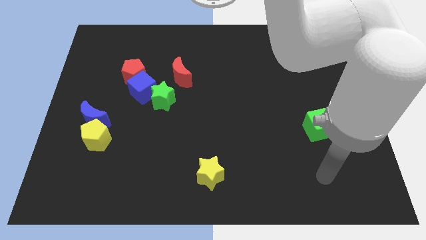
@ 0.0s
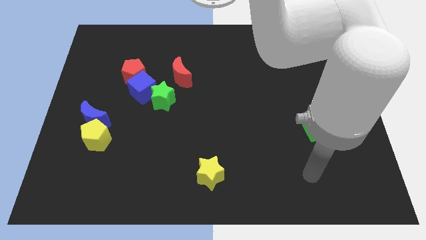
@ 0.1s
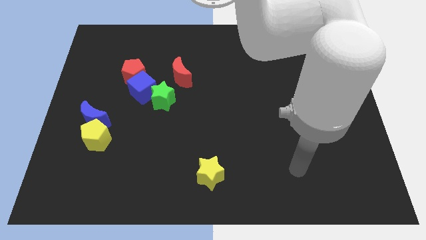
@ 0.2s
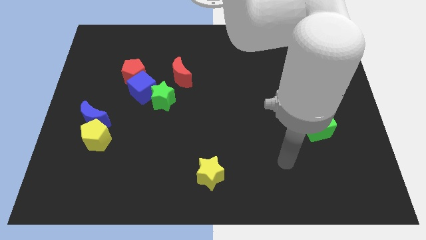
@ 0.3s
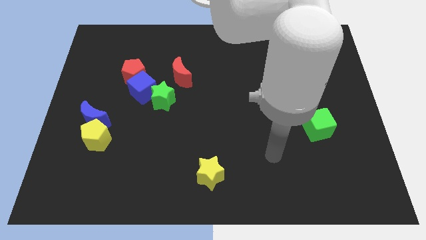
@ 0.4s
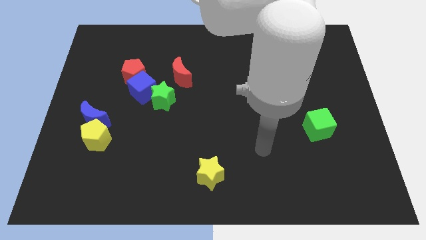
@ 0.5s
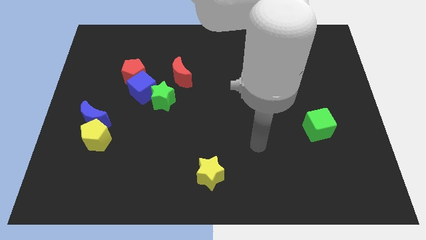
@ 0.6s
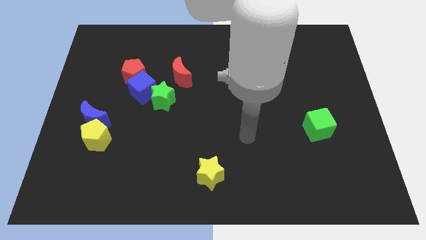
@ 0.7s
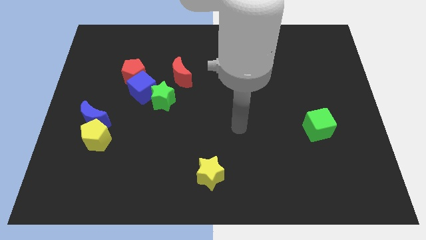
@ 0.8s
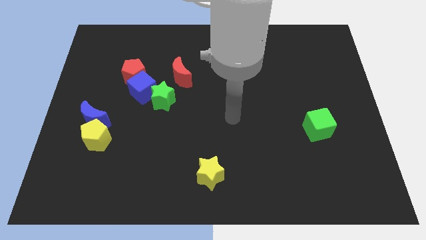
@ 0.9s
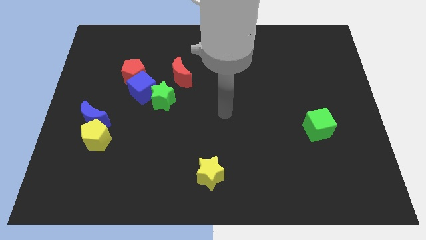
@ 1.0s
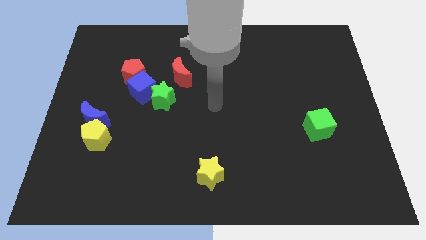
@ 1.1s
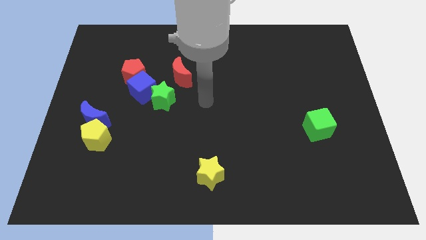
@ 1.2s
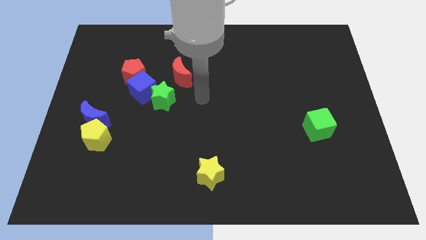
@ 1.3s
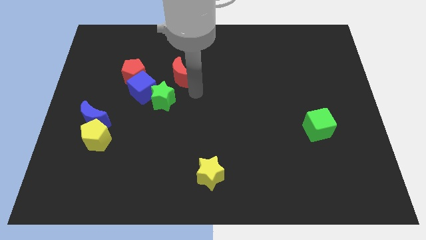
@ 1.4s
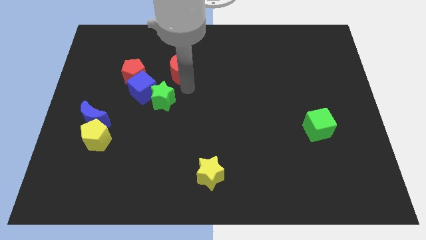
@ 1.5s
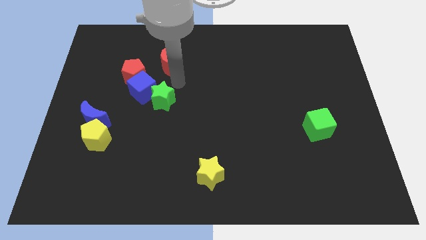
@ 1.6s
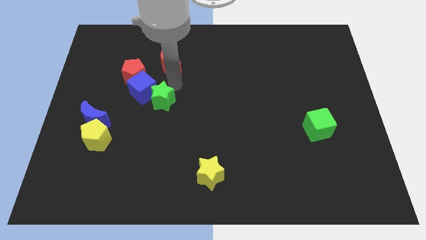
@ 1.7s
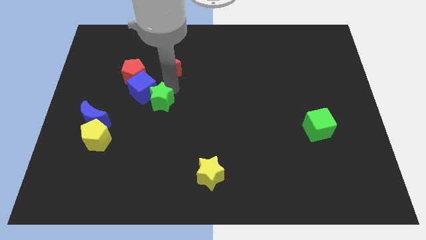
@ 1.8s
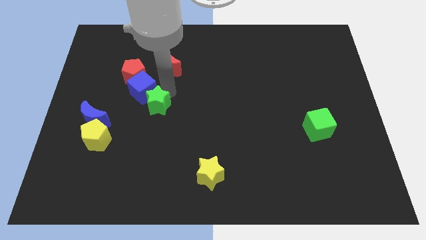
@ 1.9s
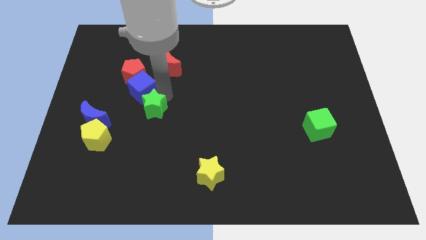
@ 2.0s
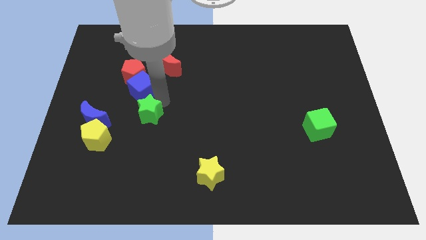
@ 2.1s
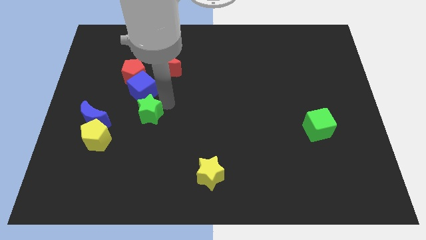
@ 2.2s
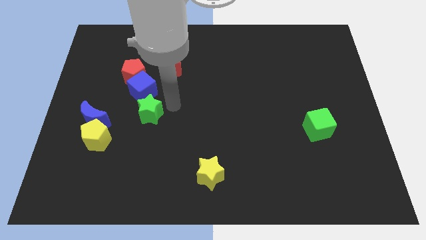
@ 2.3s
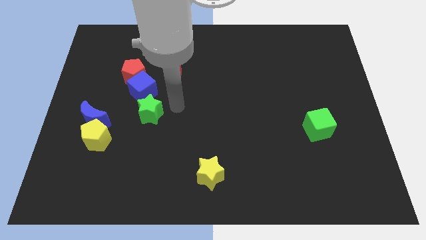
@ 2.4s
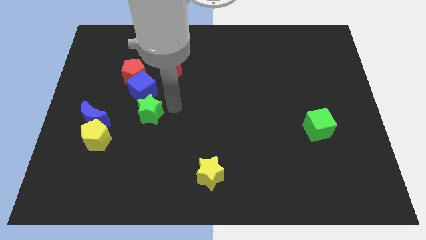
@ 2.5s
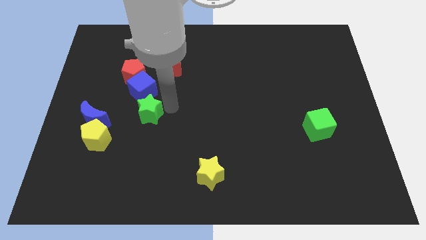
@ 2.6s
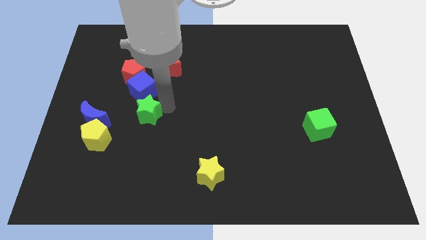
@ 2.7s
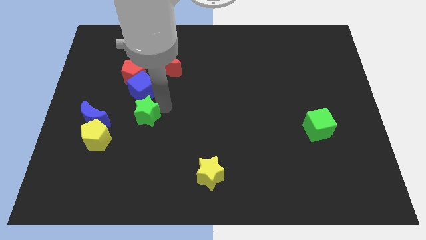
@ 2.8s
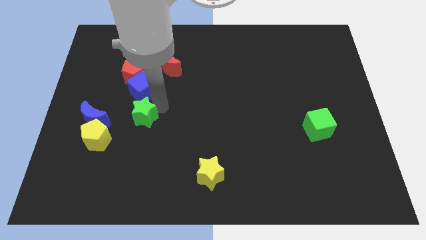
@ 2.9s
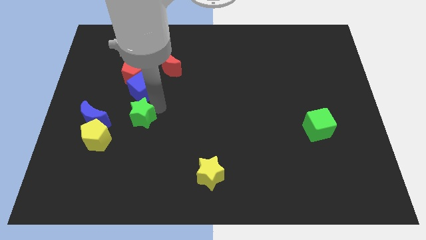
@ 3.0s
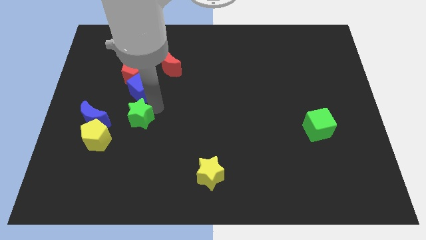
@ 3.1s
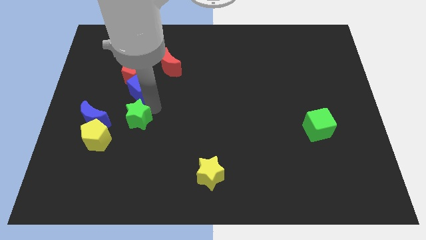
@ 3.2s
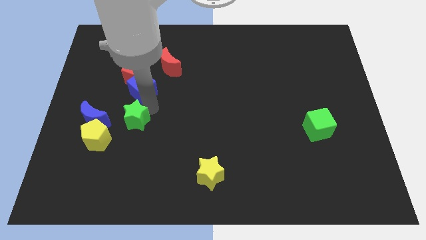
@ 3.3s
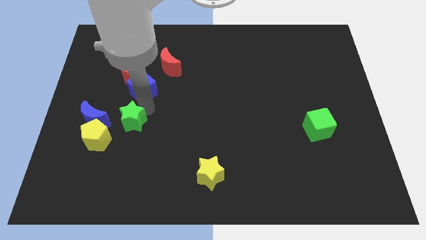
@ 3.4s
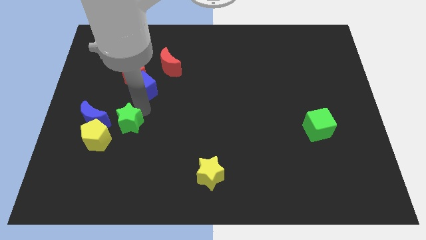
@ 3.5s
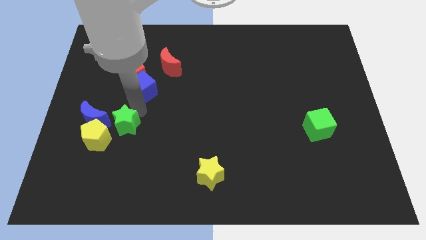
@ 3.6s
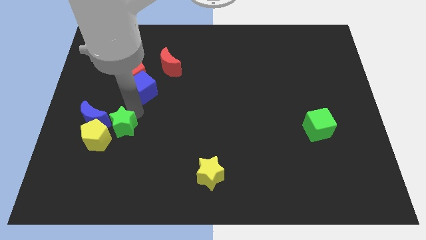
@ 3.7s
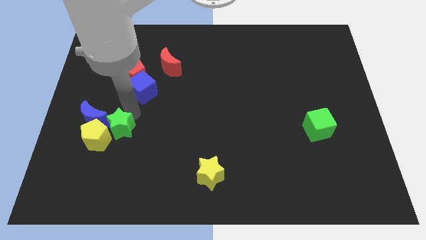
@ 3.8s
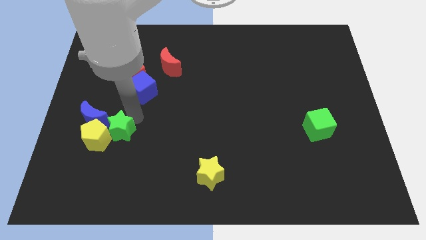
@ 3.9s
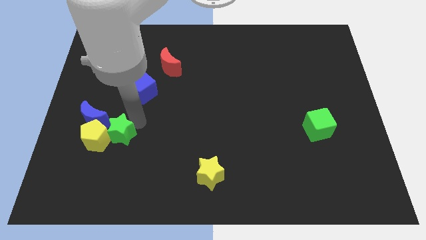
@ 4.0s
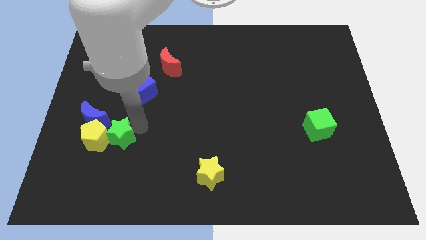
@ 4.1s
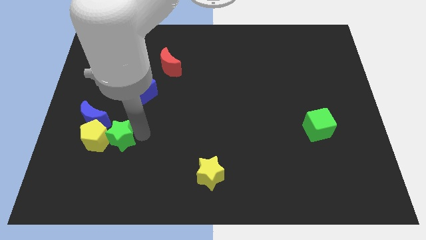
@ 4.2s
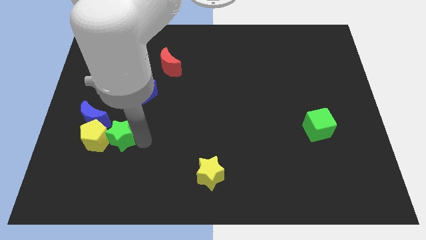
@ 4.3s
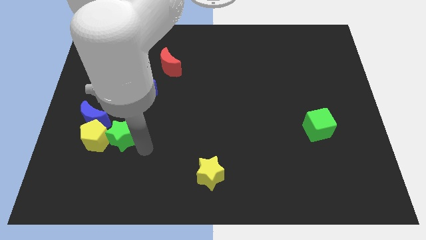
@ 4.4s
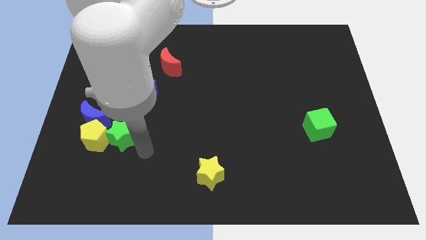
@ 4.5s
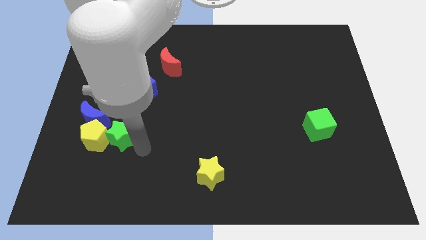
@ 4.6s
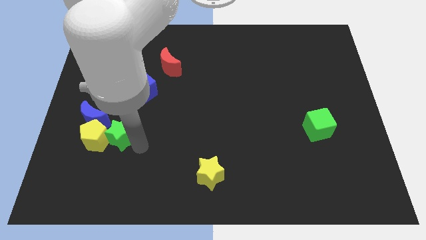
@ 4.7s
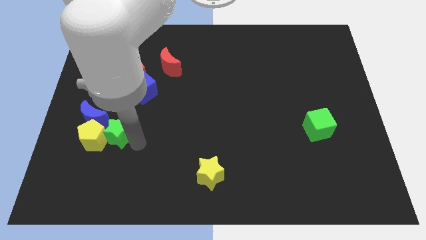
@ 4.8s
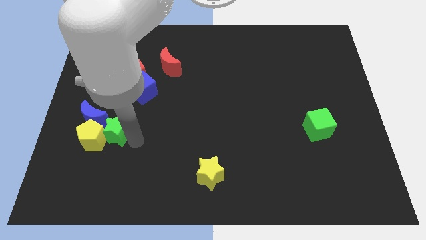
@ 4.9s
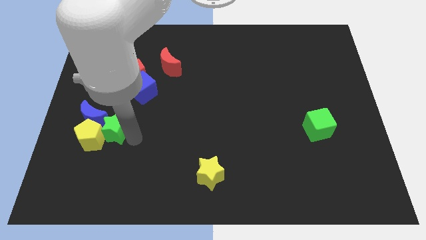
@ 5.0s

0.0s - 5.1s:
push the green star next to the blue moon

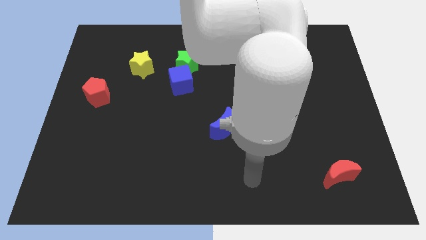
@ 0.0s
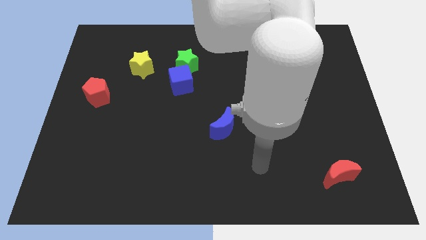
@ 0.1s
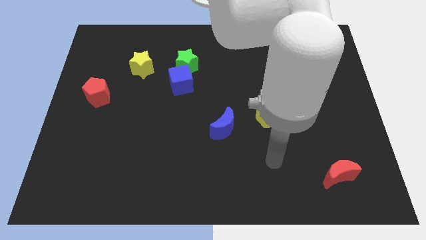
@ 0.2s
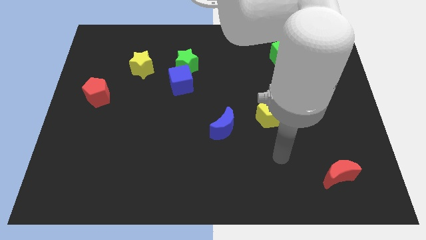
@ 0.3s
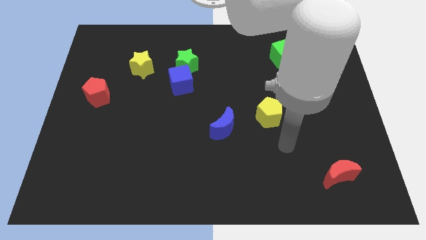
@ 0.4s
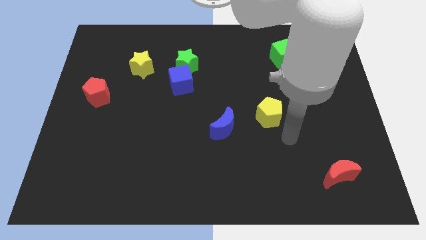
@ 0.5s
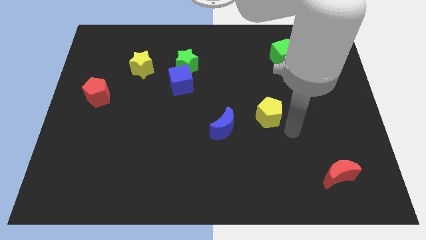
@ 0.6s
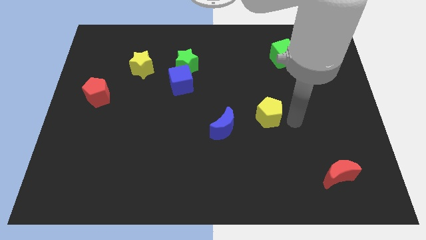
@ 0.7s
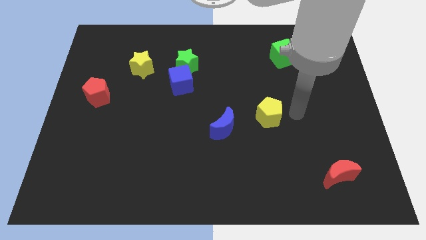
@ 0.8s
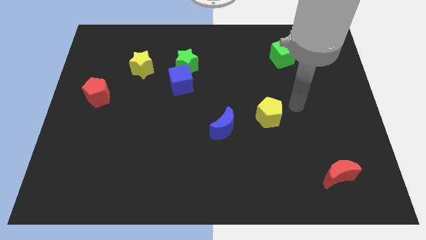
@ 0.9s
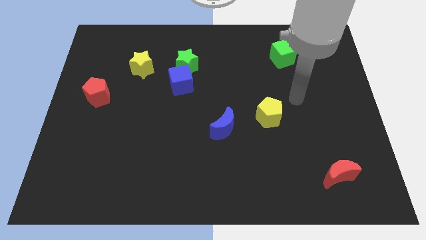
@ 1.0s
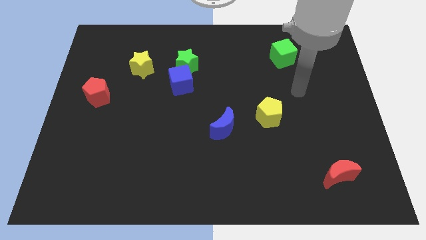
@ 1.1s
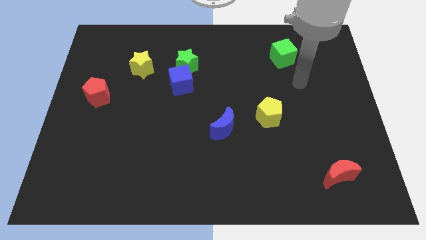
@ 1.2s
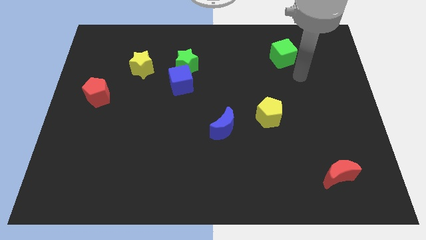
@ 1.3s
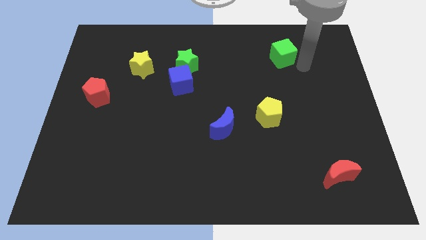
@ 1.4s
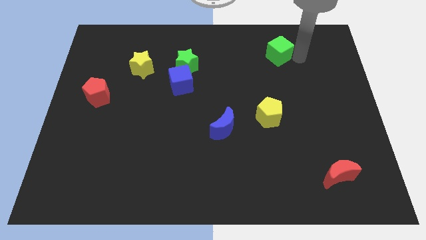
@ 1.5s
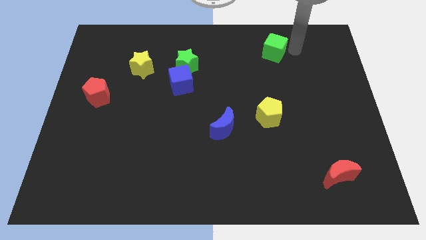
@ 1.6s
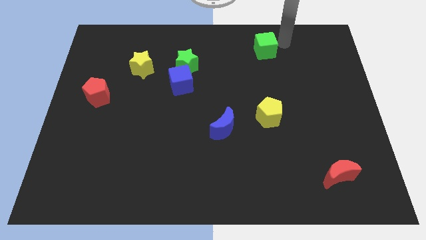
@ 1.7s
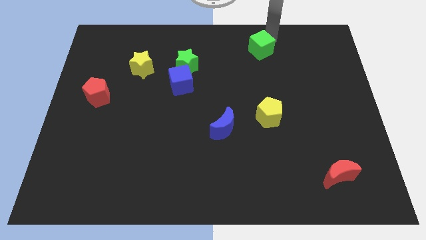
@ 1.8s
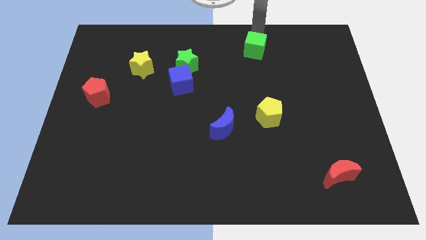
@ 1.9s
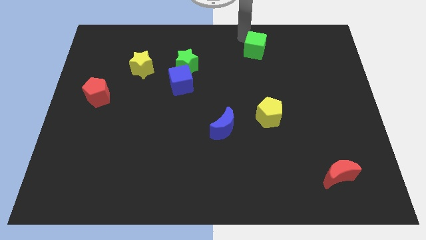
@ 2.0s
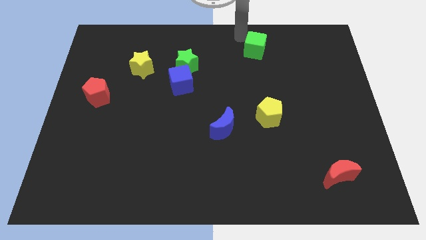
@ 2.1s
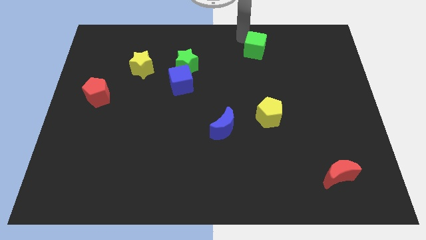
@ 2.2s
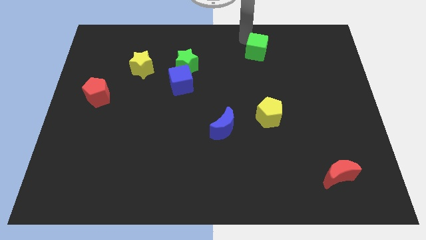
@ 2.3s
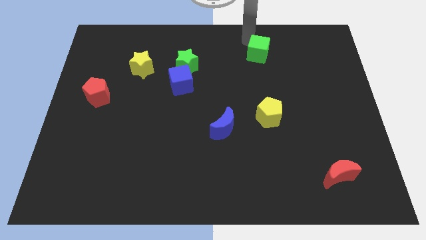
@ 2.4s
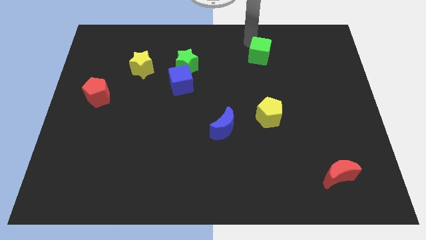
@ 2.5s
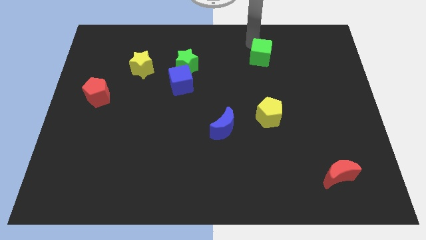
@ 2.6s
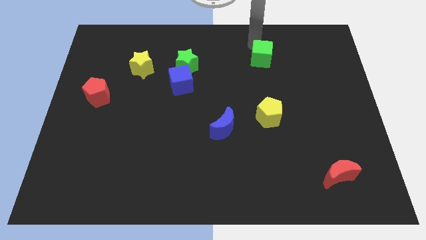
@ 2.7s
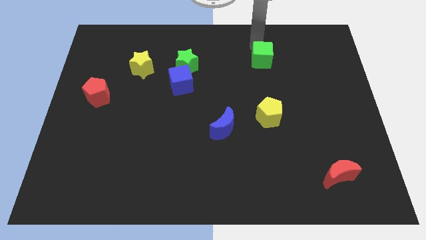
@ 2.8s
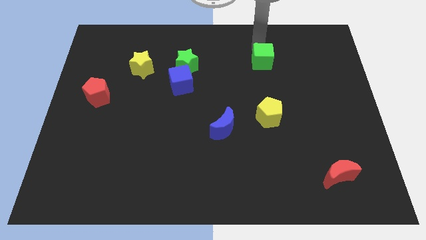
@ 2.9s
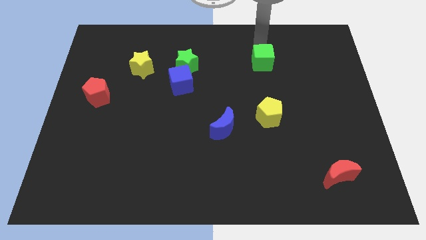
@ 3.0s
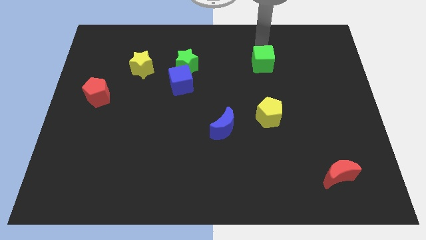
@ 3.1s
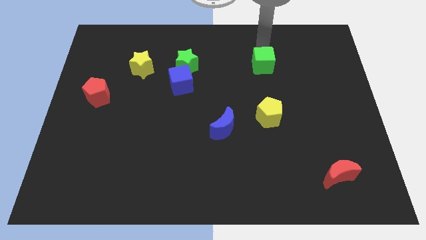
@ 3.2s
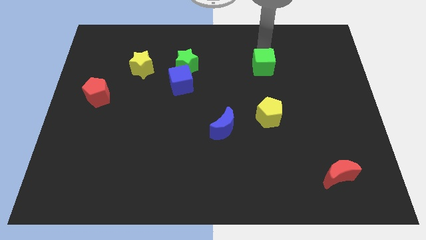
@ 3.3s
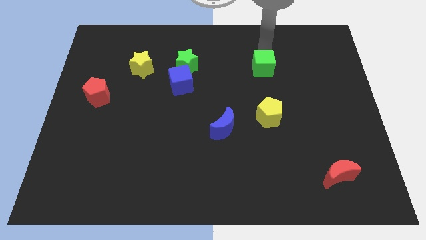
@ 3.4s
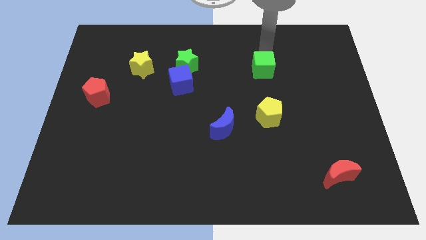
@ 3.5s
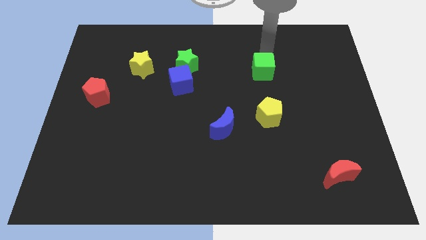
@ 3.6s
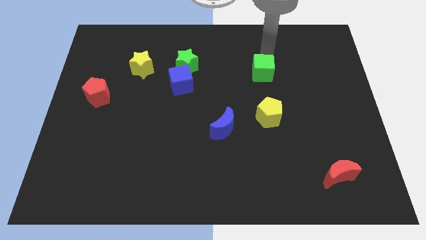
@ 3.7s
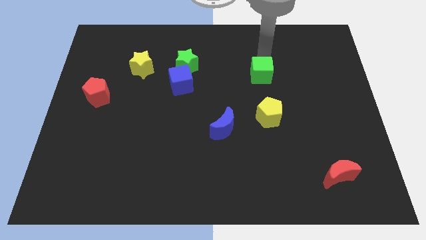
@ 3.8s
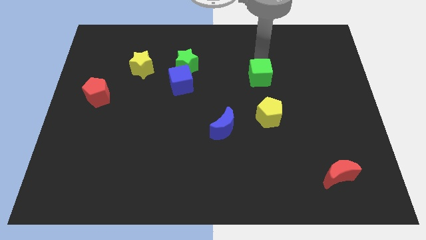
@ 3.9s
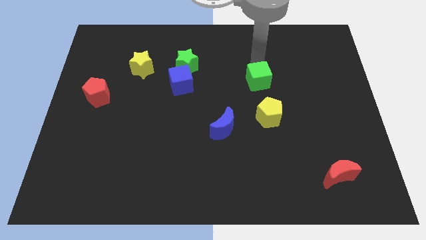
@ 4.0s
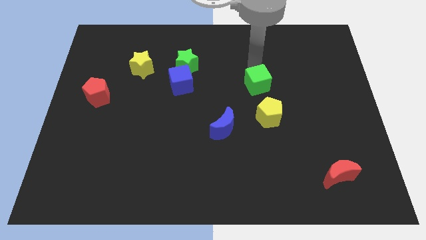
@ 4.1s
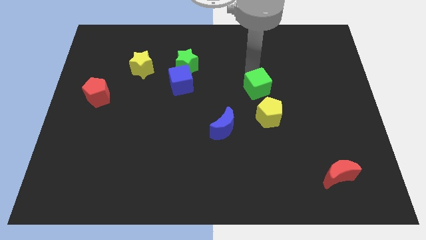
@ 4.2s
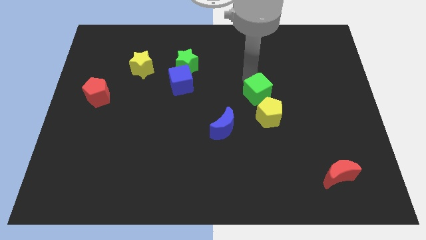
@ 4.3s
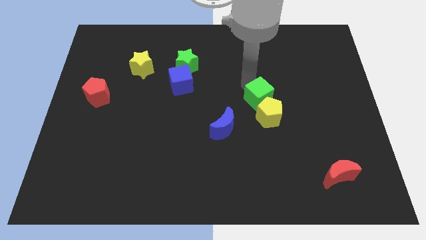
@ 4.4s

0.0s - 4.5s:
slide the green cube next to the yellow pentagon
